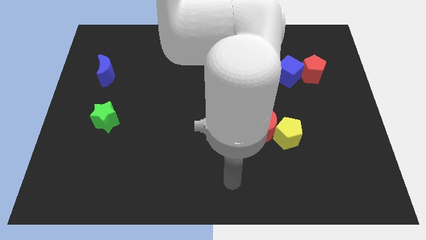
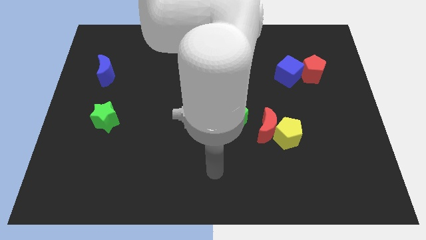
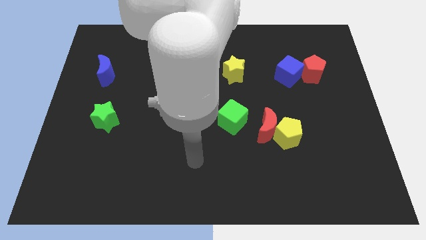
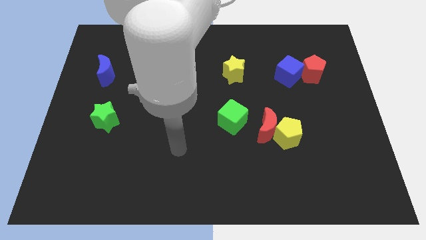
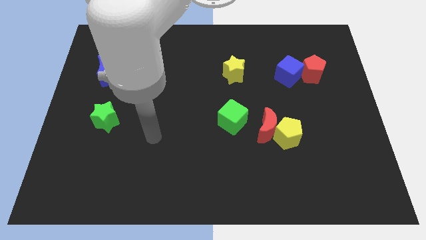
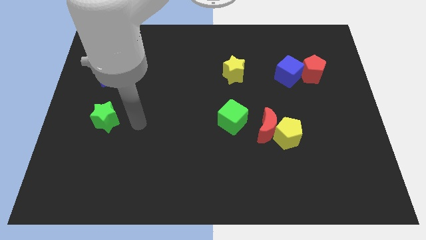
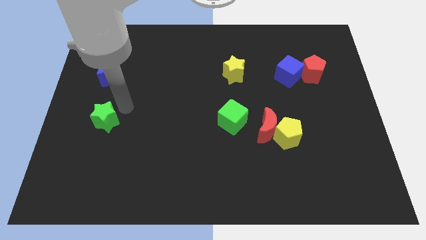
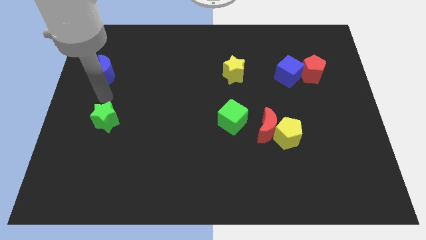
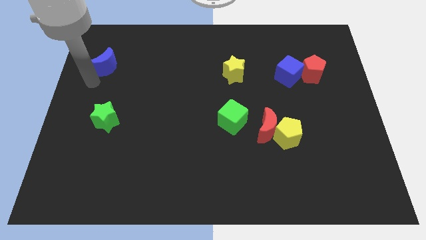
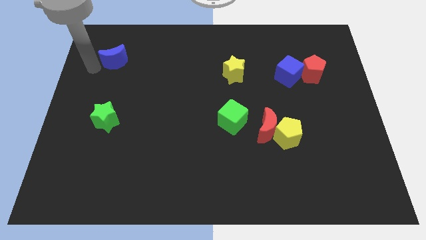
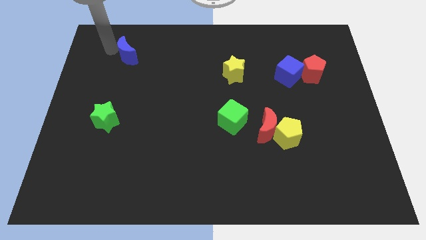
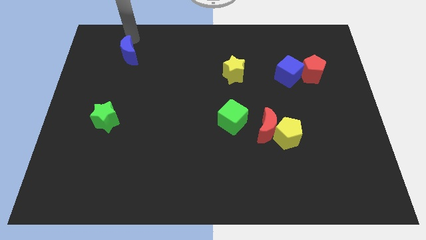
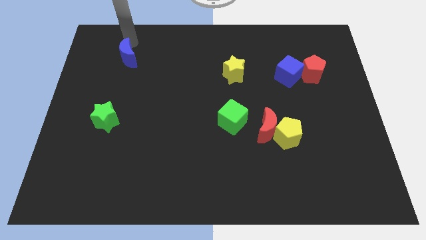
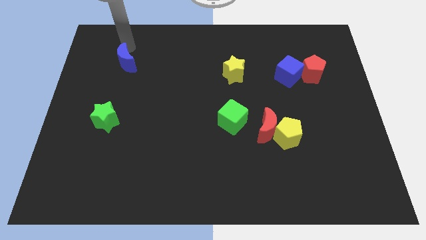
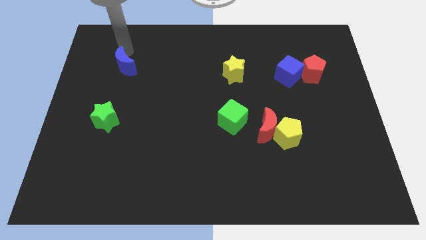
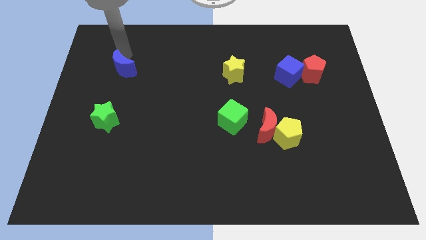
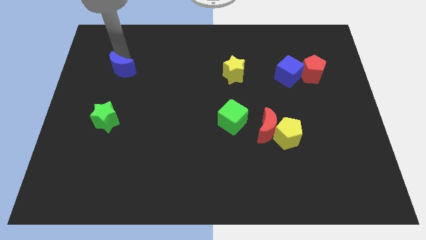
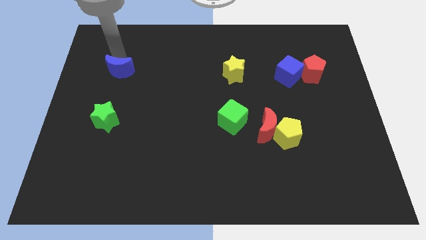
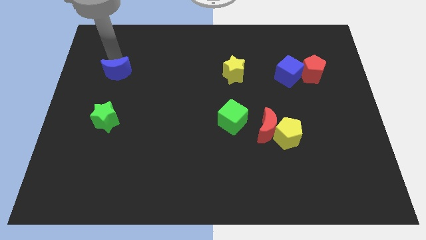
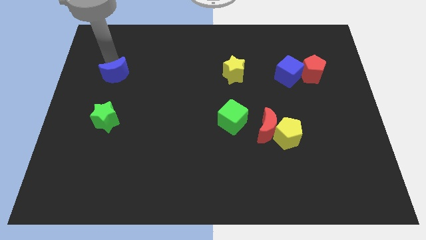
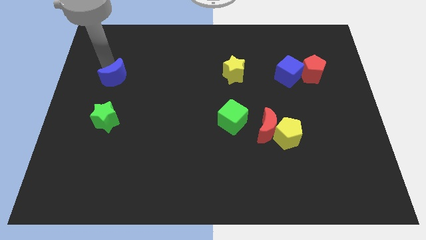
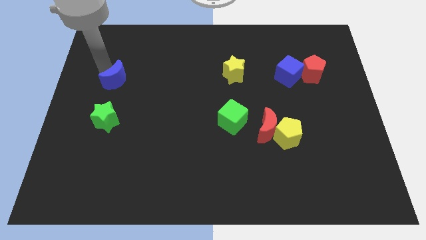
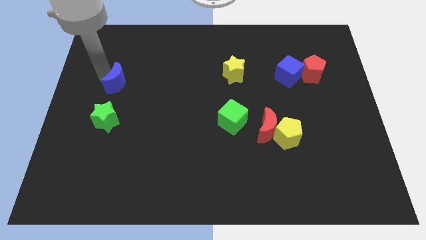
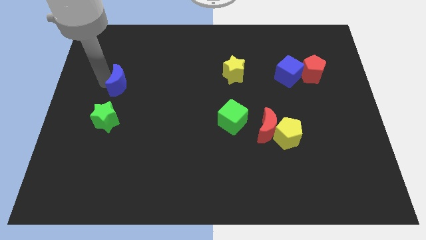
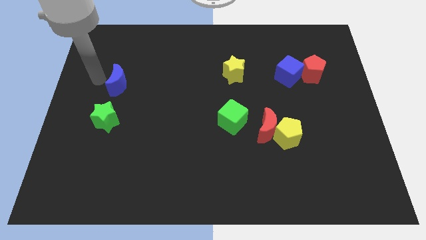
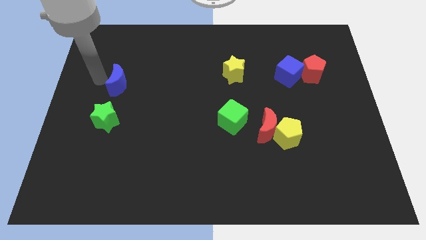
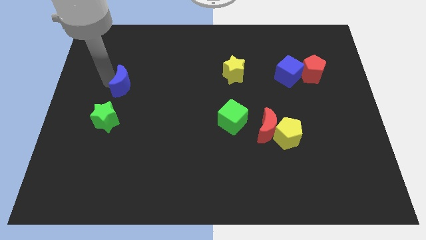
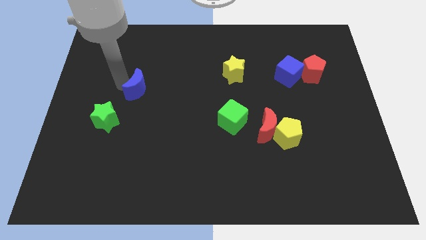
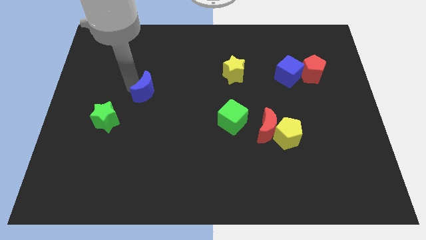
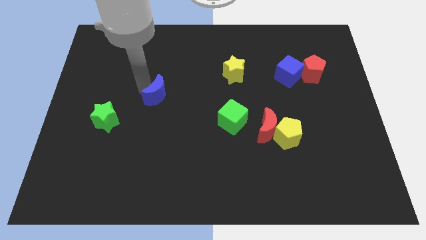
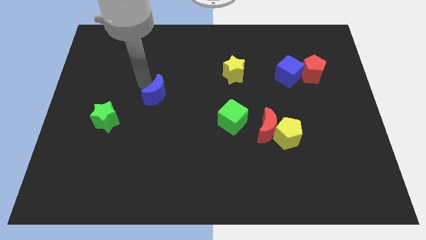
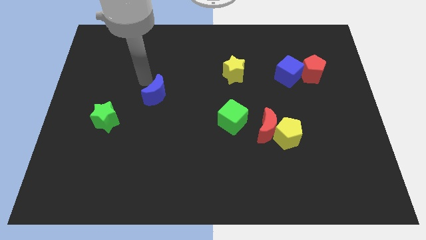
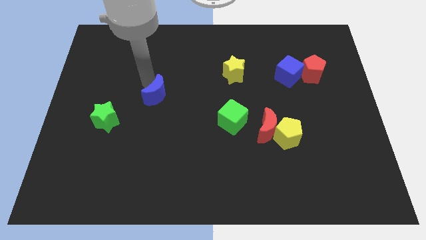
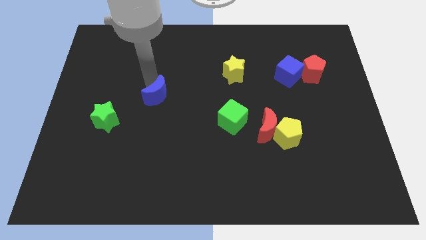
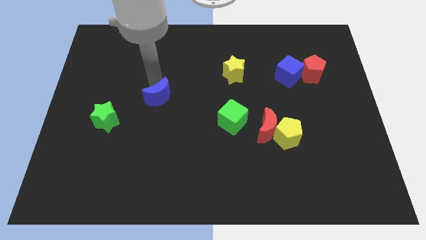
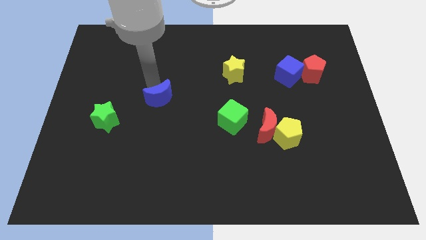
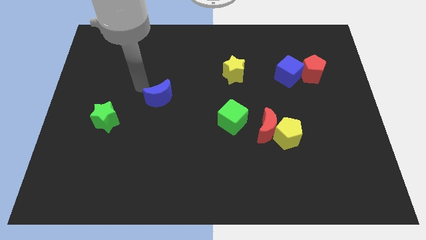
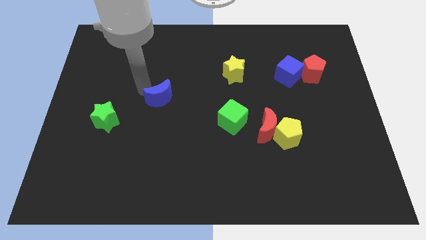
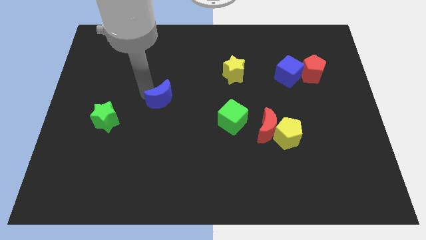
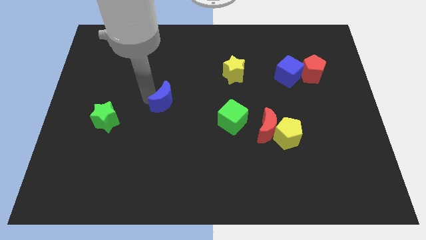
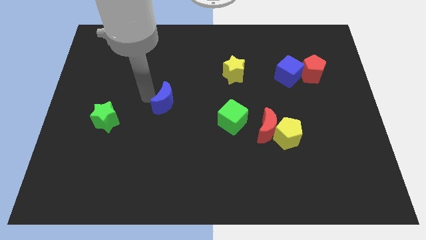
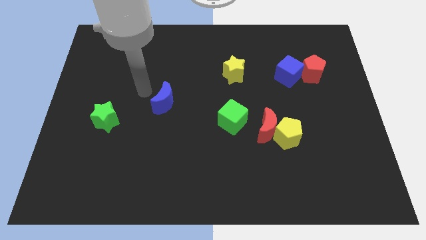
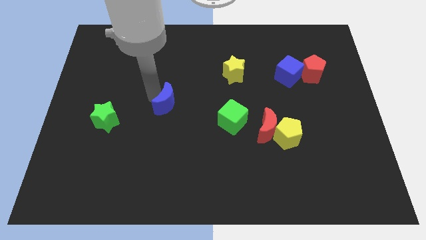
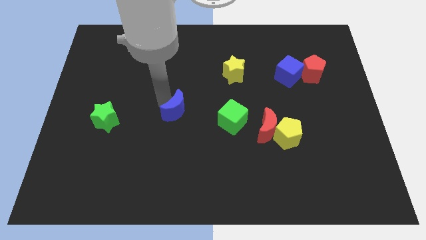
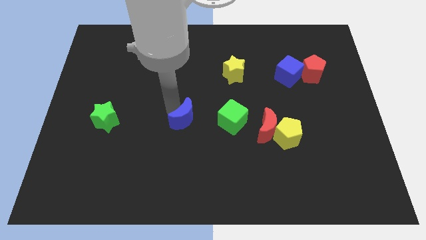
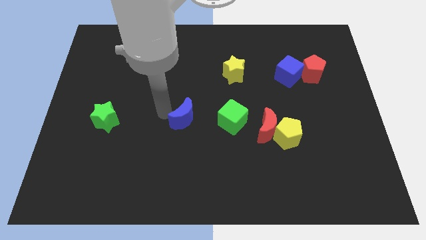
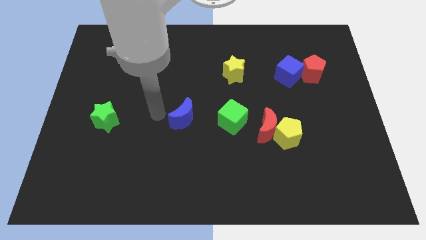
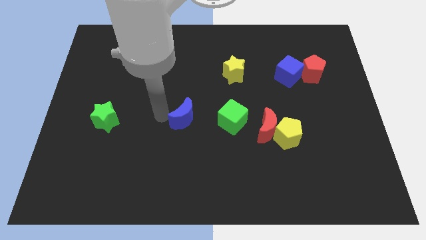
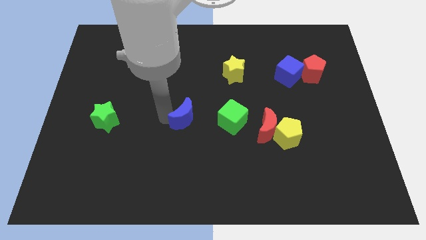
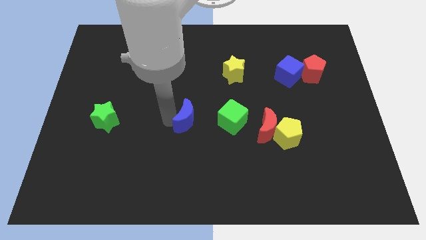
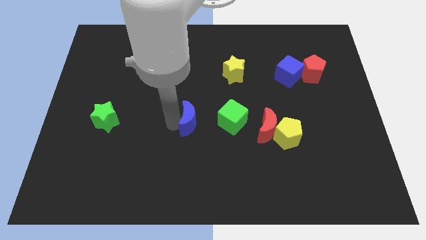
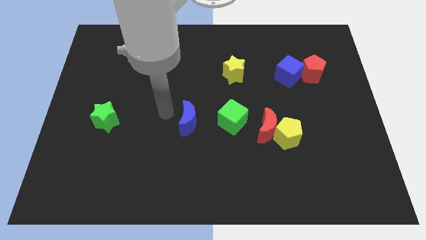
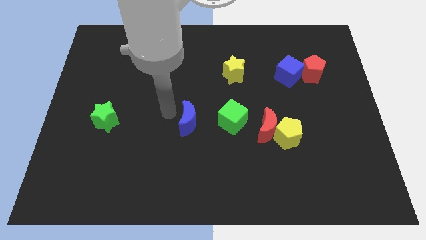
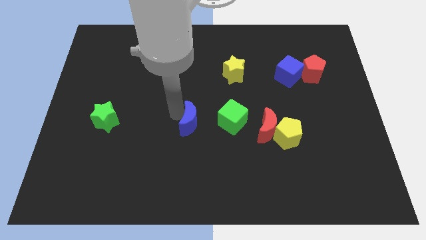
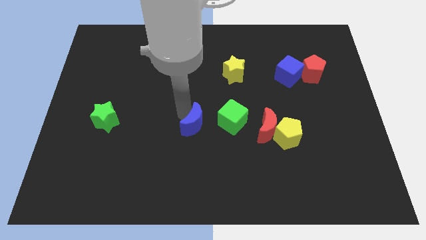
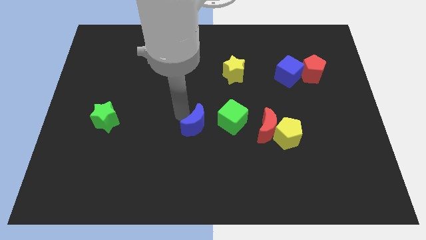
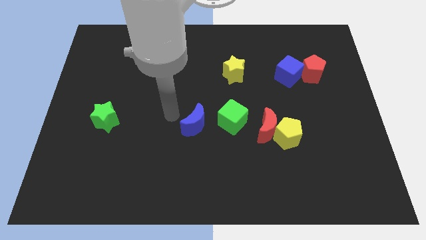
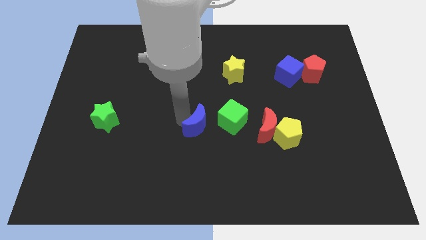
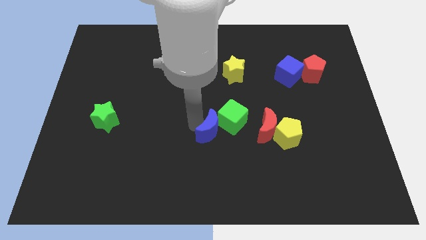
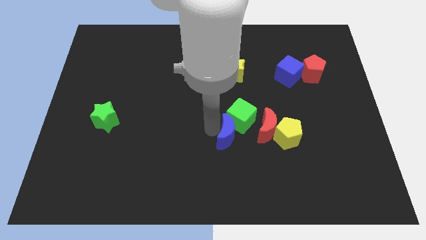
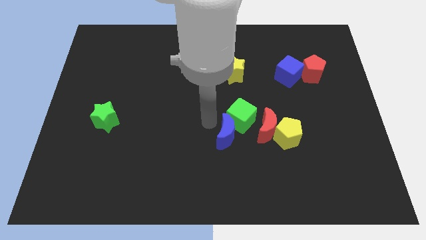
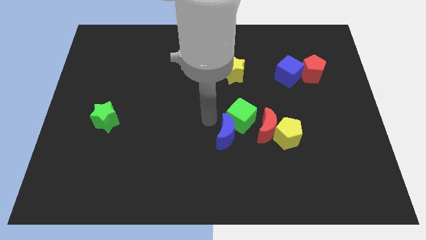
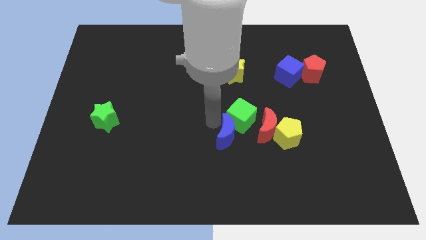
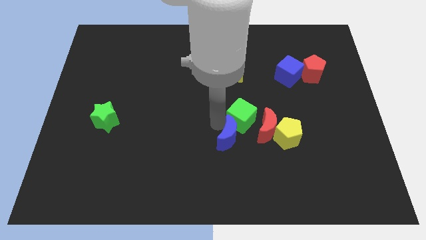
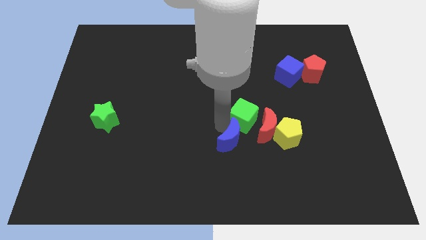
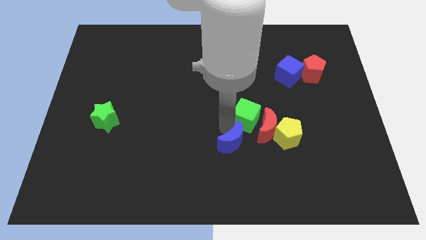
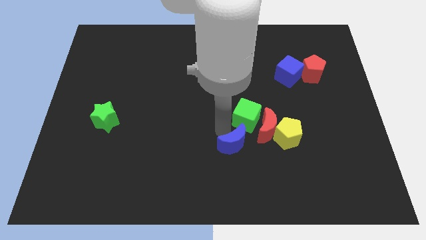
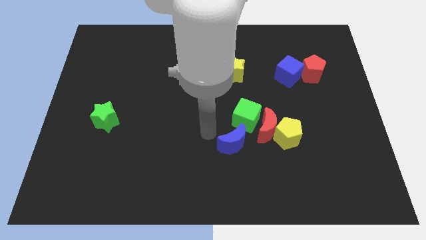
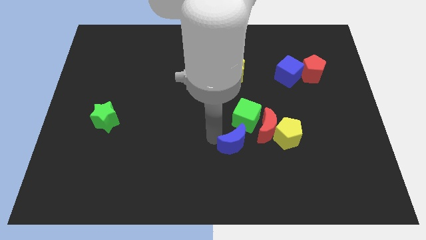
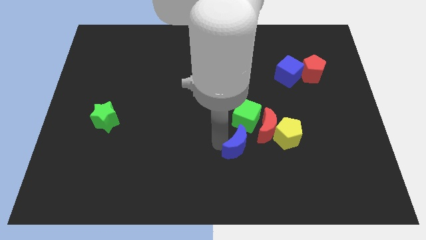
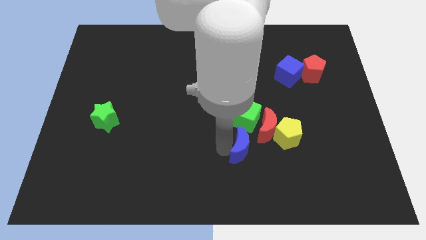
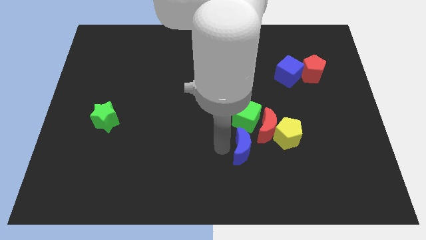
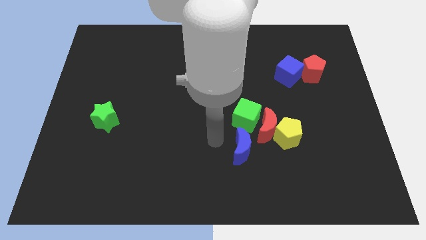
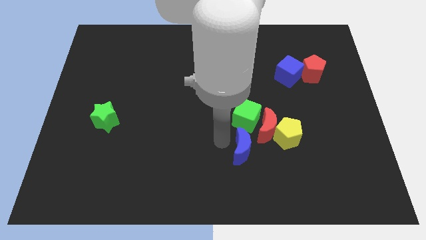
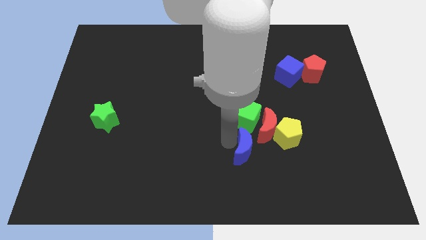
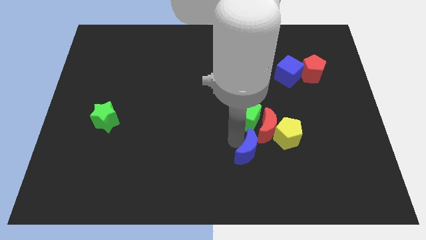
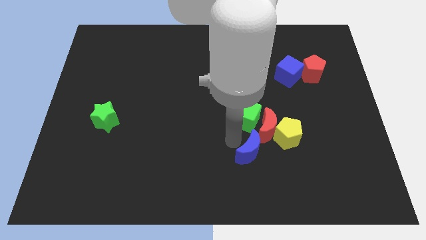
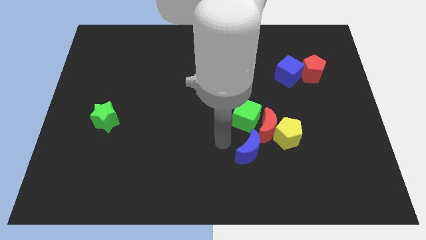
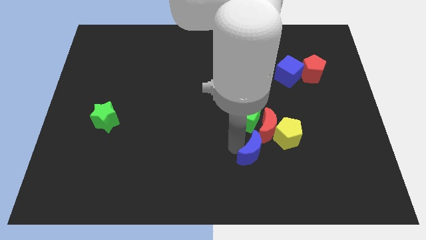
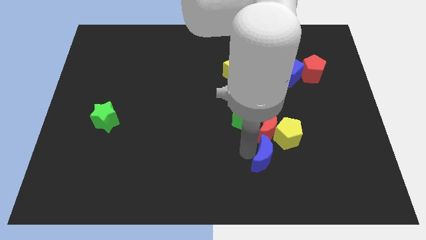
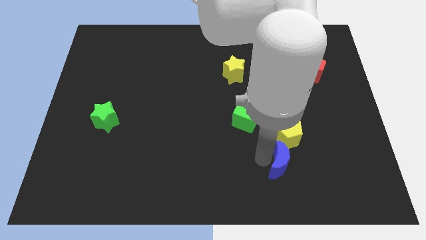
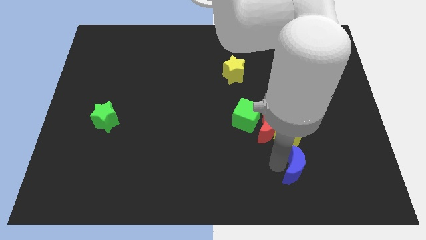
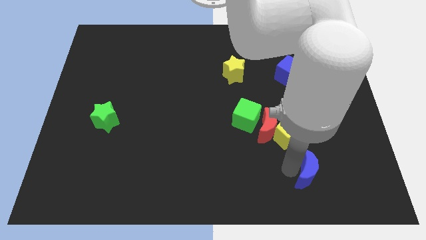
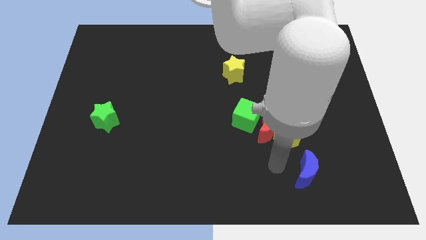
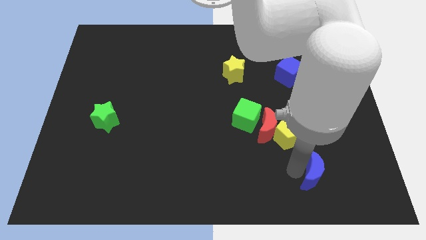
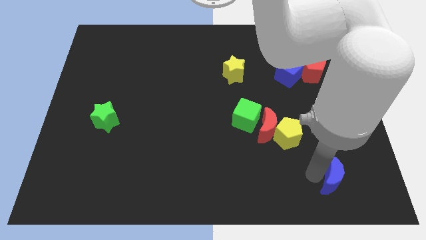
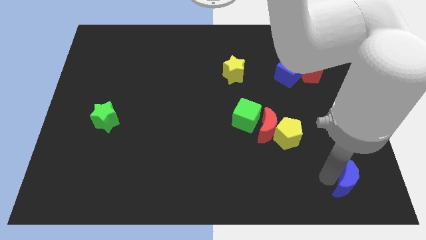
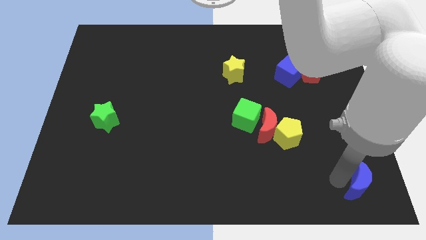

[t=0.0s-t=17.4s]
push the blue moon to the lower right corner
